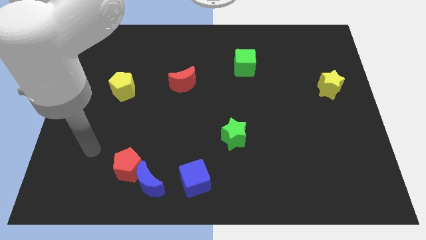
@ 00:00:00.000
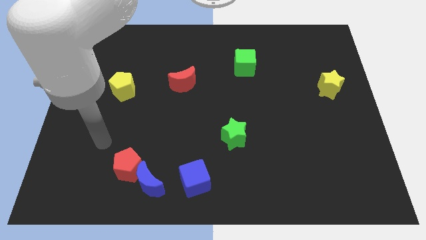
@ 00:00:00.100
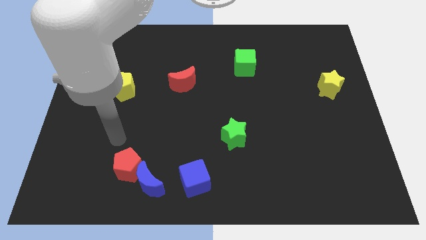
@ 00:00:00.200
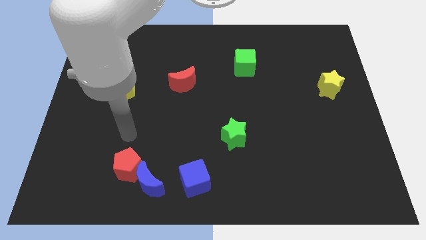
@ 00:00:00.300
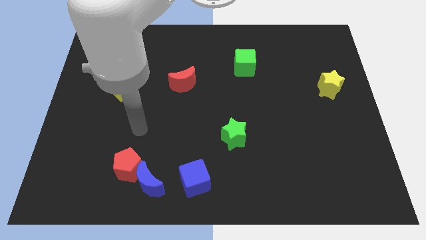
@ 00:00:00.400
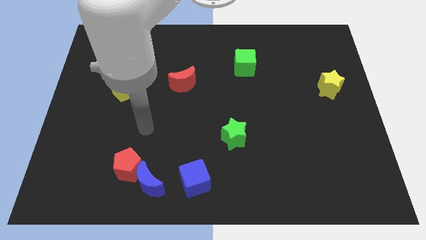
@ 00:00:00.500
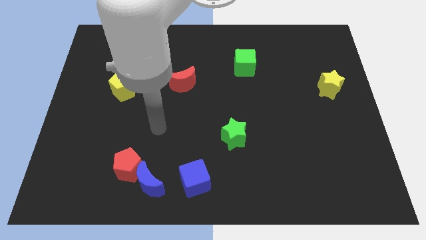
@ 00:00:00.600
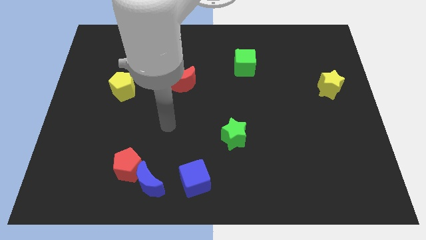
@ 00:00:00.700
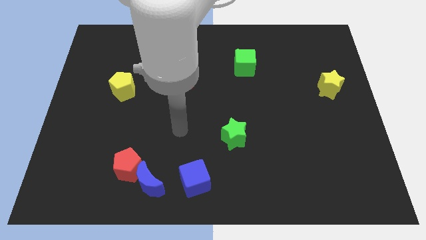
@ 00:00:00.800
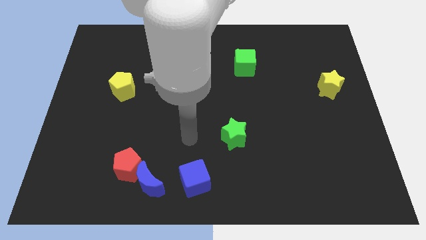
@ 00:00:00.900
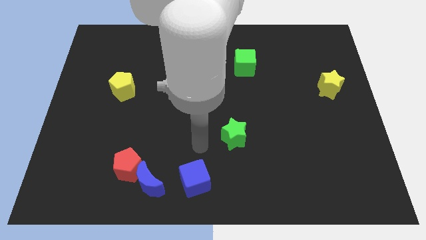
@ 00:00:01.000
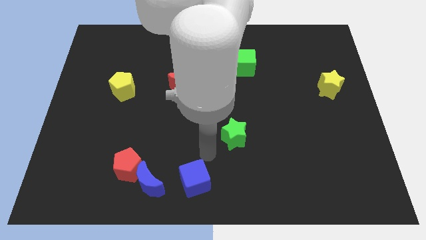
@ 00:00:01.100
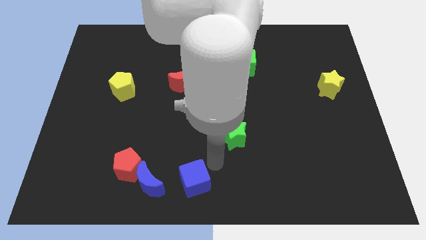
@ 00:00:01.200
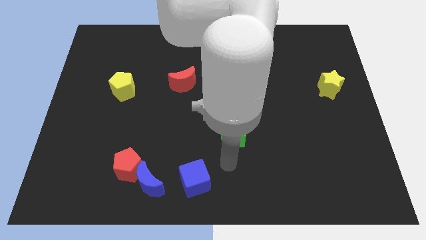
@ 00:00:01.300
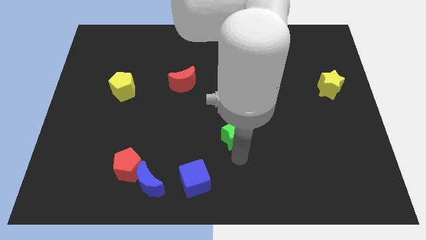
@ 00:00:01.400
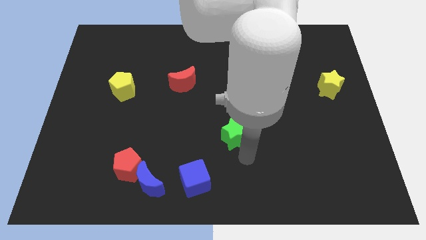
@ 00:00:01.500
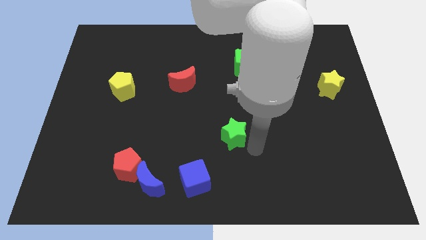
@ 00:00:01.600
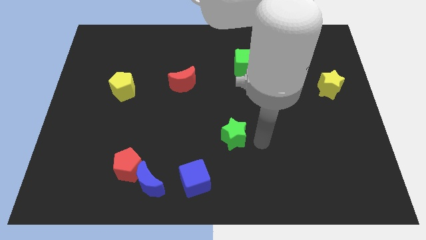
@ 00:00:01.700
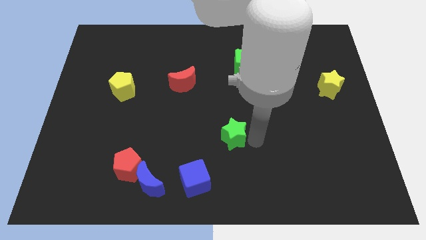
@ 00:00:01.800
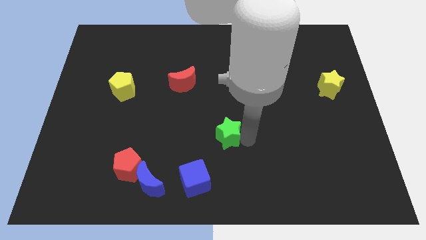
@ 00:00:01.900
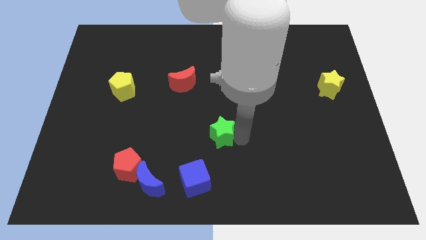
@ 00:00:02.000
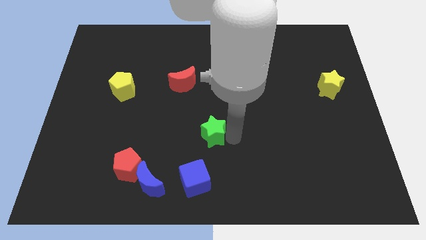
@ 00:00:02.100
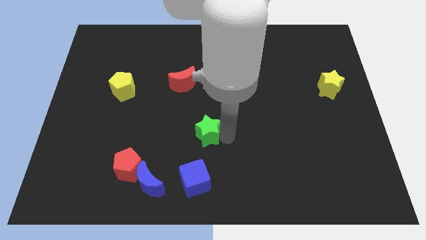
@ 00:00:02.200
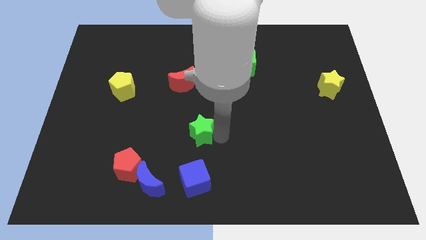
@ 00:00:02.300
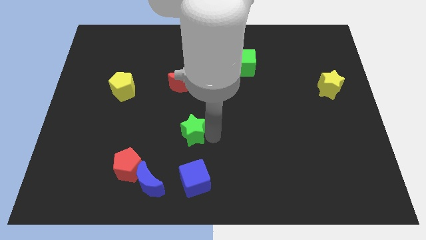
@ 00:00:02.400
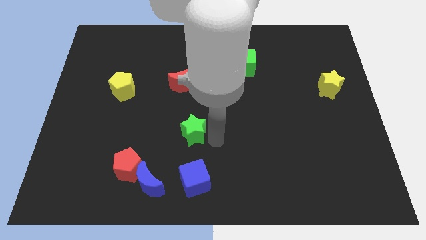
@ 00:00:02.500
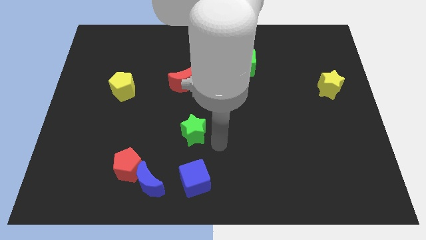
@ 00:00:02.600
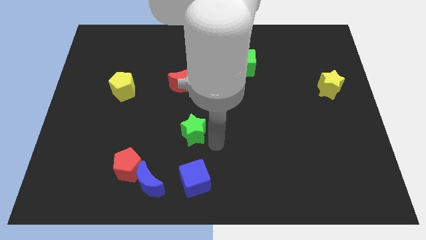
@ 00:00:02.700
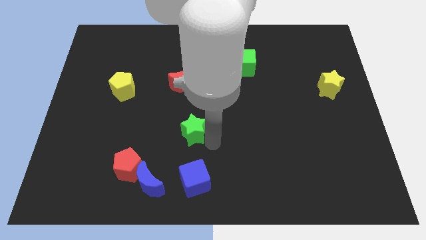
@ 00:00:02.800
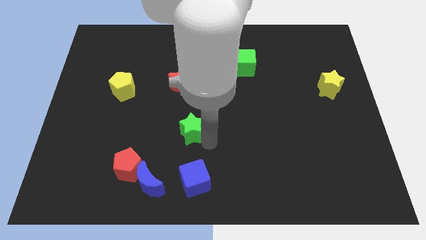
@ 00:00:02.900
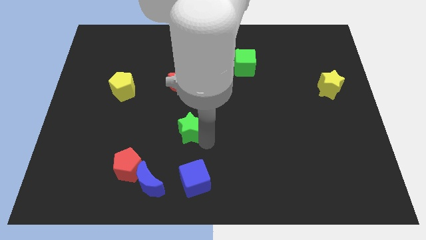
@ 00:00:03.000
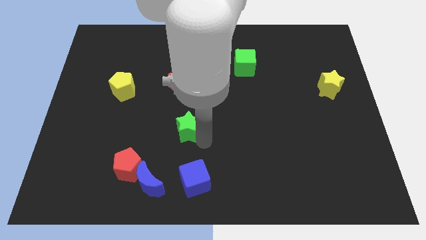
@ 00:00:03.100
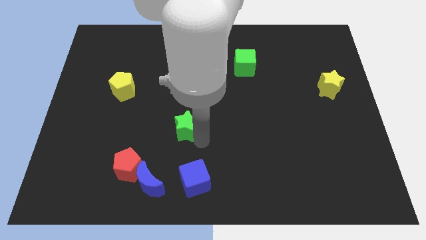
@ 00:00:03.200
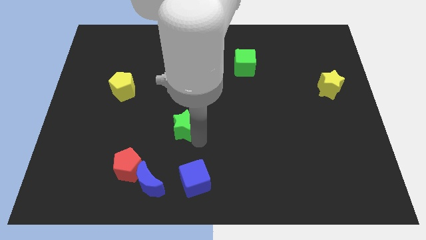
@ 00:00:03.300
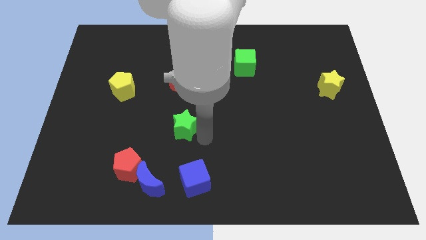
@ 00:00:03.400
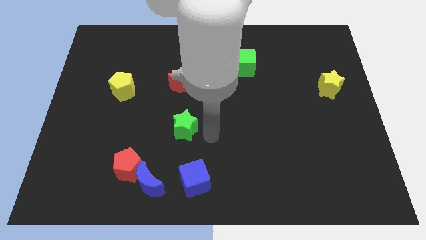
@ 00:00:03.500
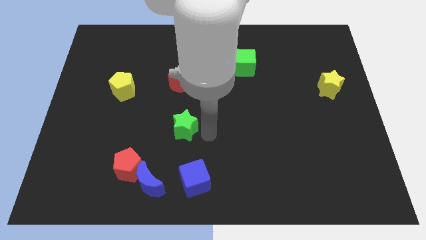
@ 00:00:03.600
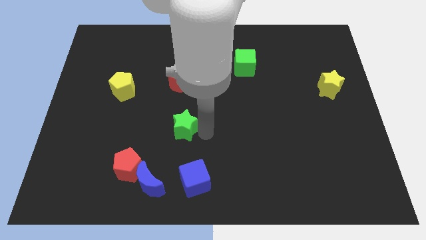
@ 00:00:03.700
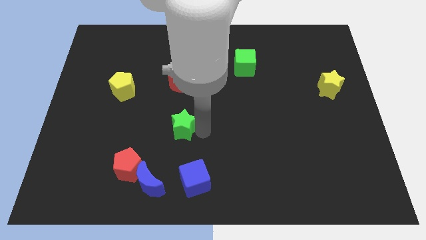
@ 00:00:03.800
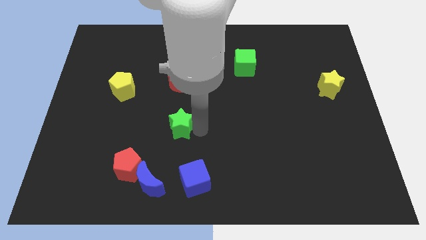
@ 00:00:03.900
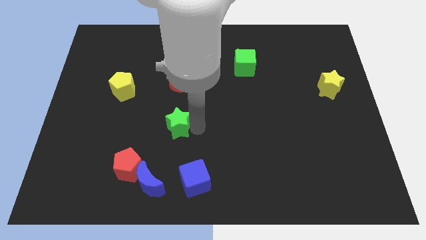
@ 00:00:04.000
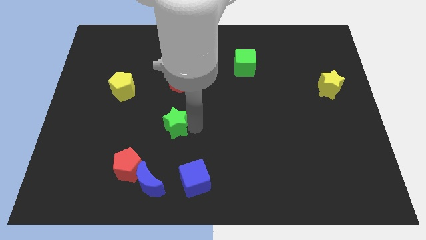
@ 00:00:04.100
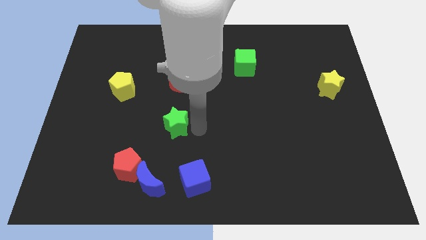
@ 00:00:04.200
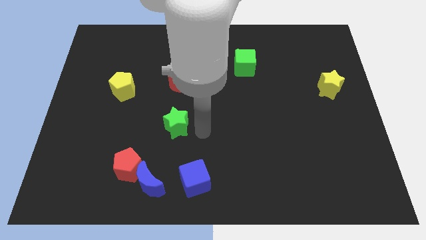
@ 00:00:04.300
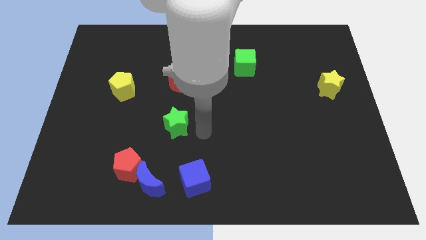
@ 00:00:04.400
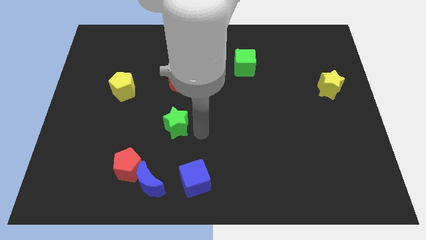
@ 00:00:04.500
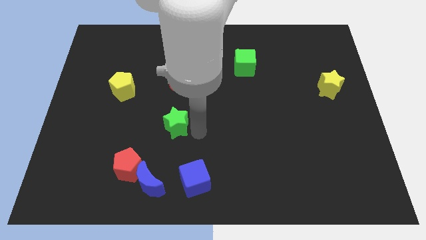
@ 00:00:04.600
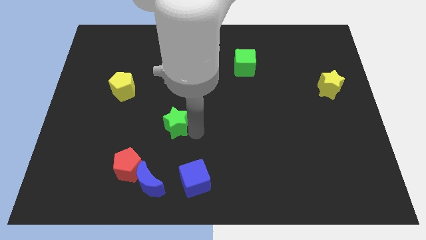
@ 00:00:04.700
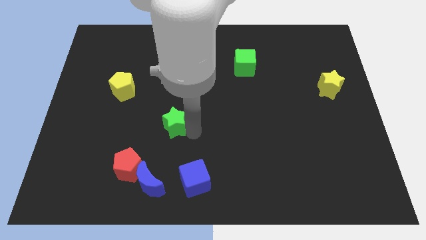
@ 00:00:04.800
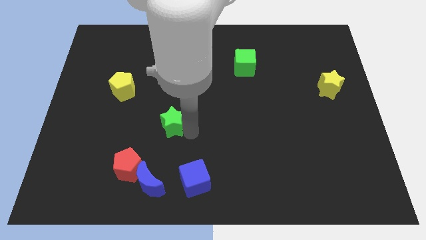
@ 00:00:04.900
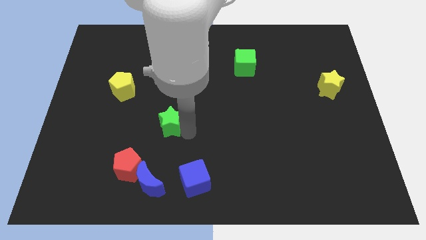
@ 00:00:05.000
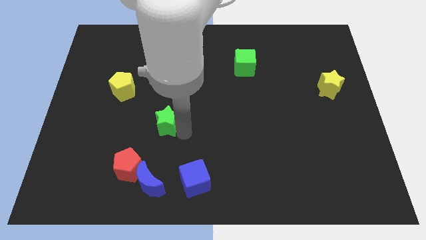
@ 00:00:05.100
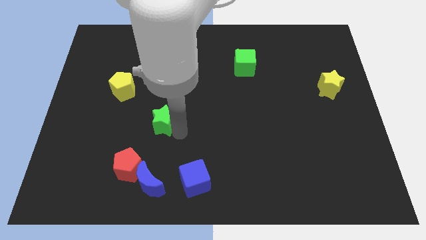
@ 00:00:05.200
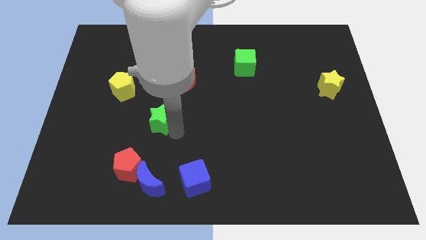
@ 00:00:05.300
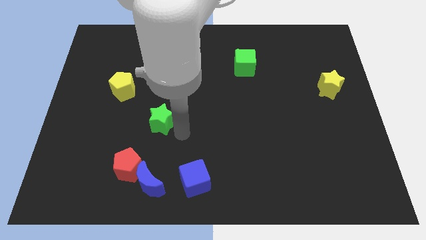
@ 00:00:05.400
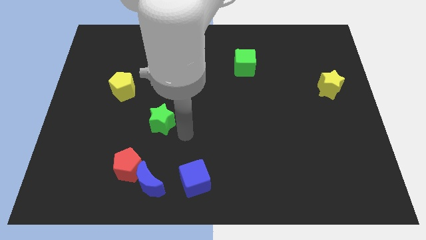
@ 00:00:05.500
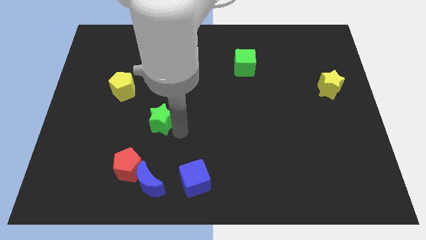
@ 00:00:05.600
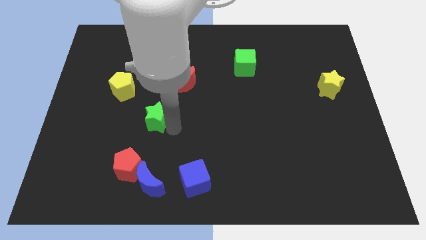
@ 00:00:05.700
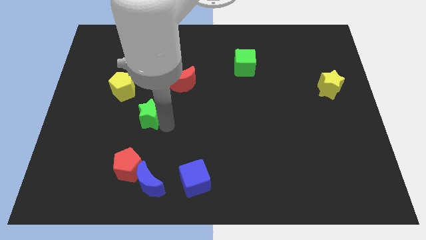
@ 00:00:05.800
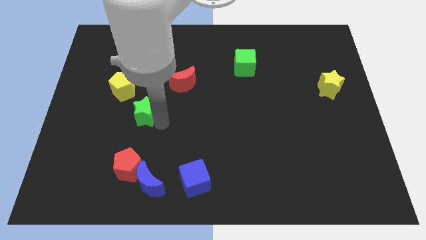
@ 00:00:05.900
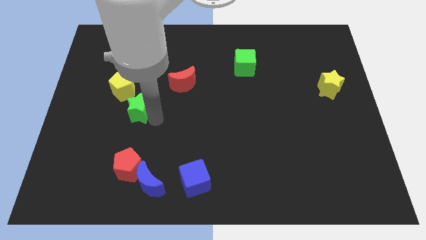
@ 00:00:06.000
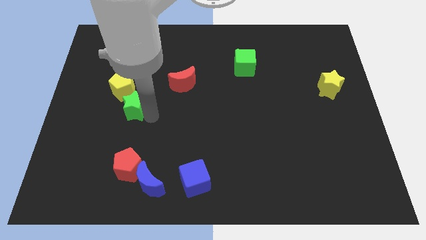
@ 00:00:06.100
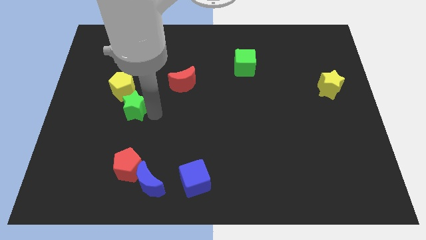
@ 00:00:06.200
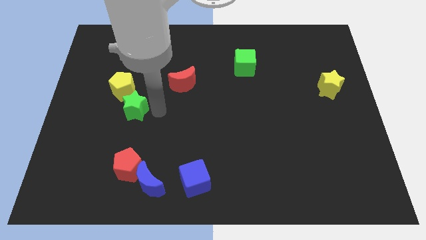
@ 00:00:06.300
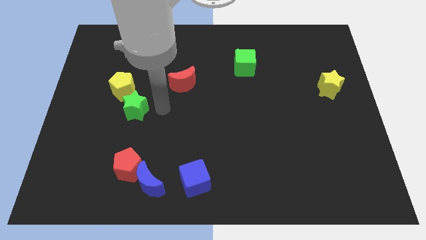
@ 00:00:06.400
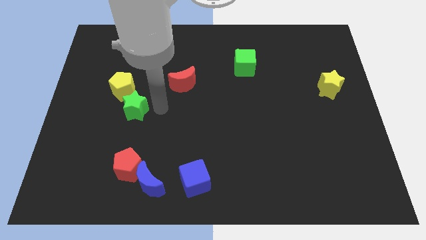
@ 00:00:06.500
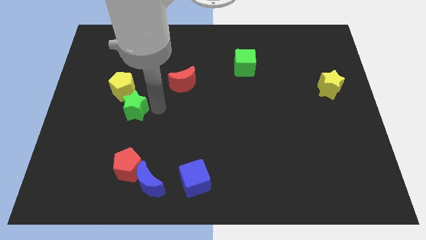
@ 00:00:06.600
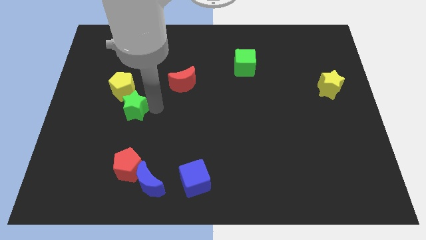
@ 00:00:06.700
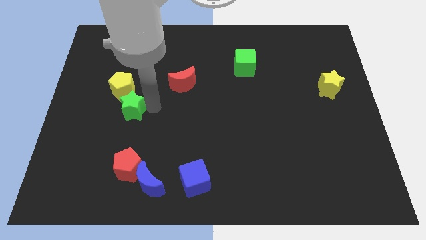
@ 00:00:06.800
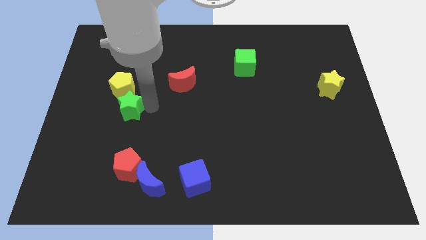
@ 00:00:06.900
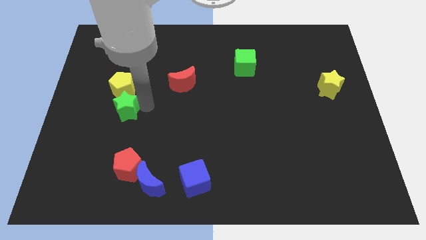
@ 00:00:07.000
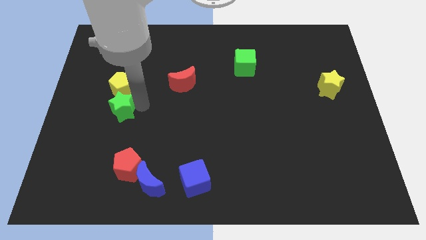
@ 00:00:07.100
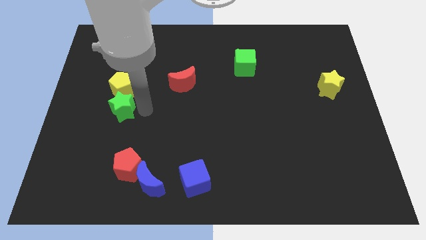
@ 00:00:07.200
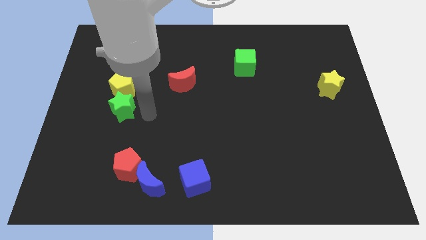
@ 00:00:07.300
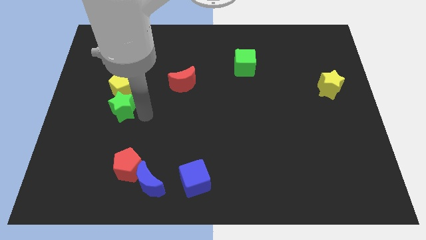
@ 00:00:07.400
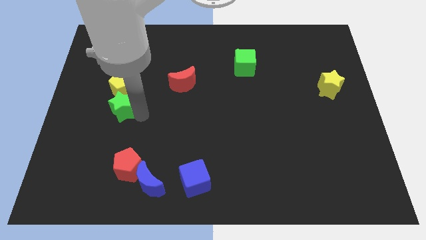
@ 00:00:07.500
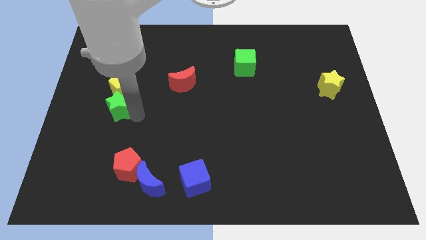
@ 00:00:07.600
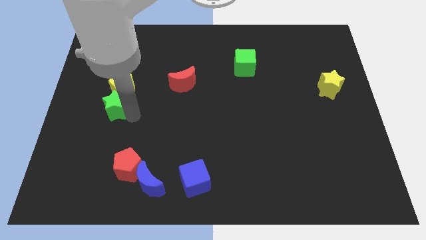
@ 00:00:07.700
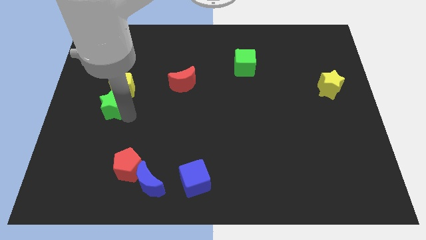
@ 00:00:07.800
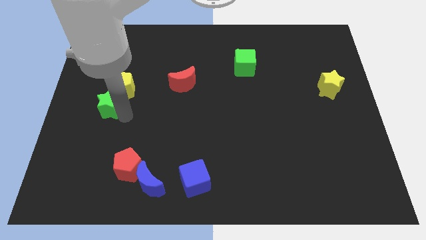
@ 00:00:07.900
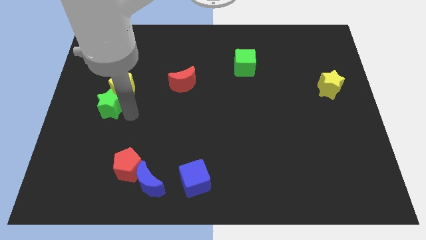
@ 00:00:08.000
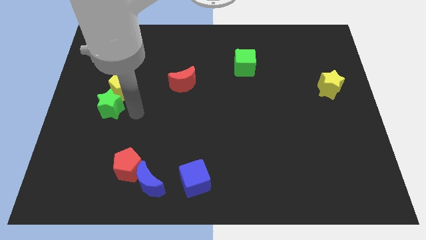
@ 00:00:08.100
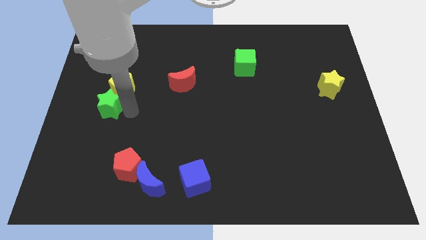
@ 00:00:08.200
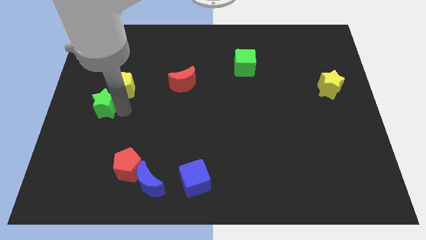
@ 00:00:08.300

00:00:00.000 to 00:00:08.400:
put the green star to the center left
